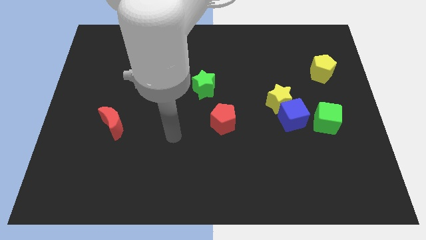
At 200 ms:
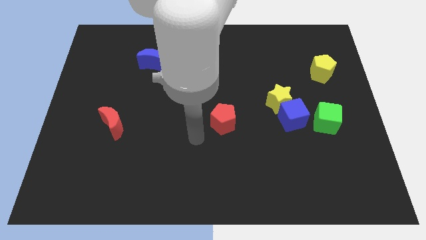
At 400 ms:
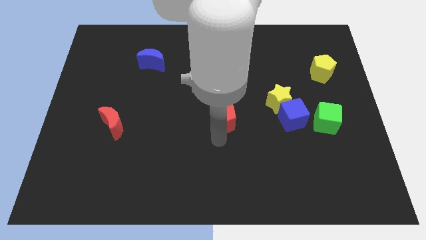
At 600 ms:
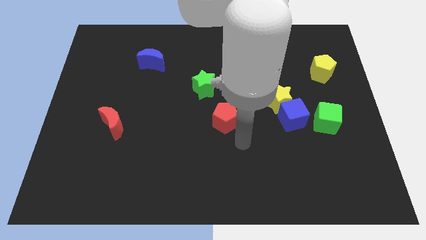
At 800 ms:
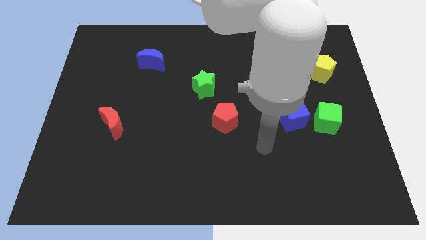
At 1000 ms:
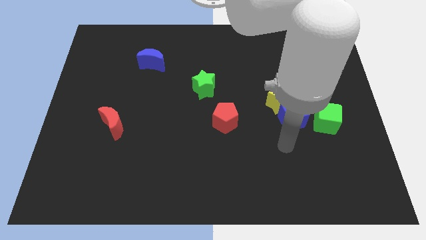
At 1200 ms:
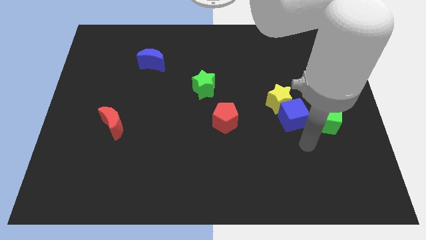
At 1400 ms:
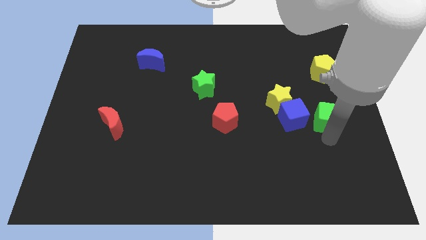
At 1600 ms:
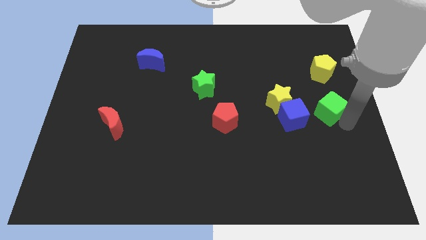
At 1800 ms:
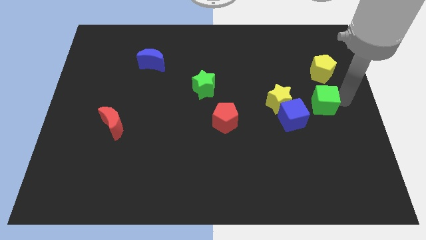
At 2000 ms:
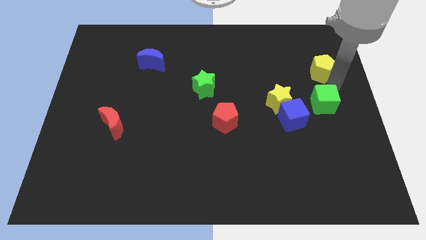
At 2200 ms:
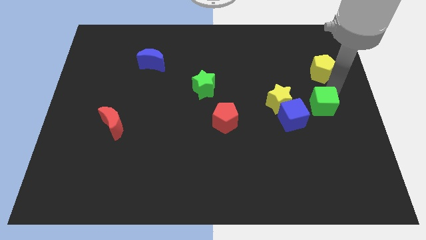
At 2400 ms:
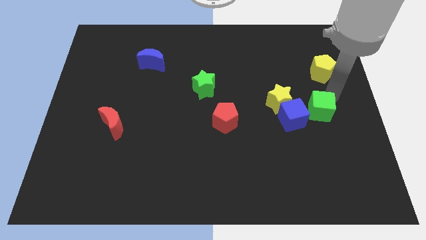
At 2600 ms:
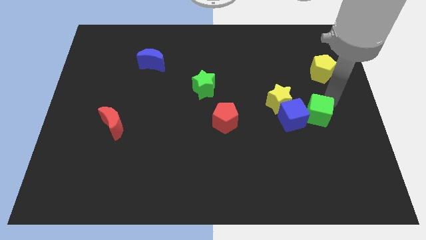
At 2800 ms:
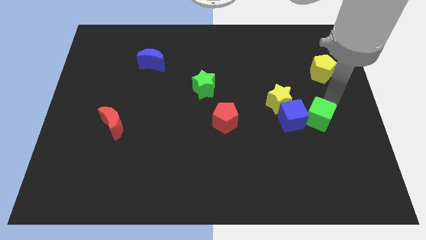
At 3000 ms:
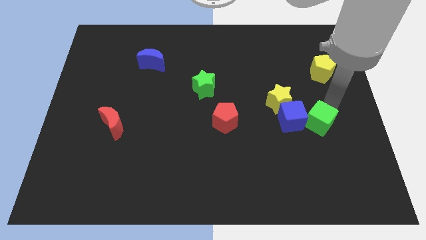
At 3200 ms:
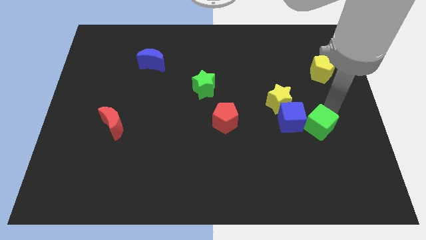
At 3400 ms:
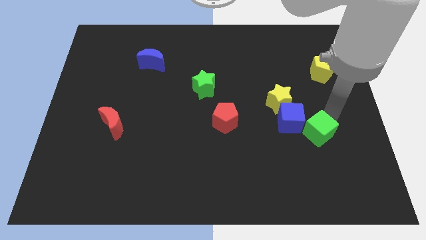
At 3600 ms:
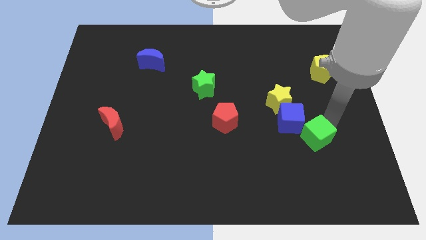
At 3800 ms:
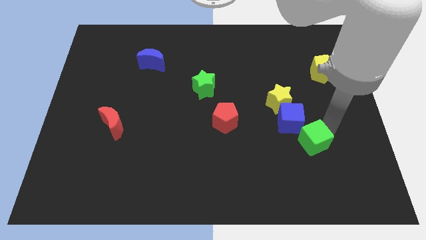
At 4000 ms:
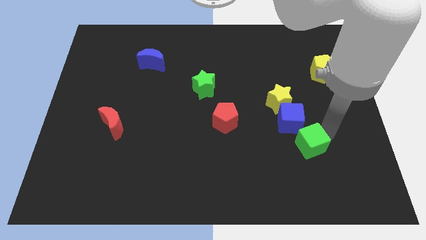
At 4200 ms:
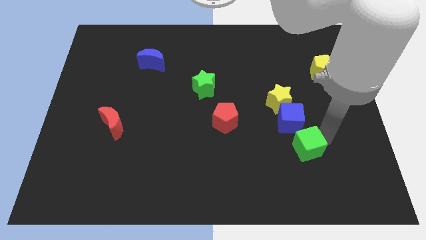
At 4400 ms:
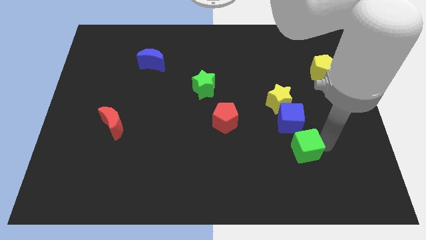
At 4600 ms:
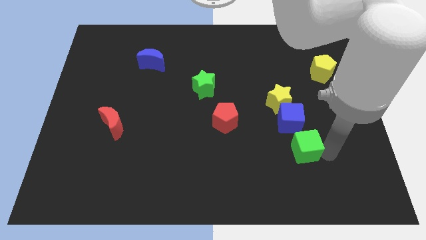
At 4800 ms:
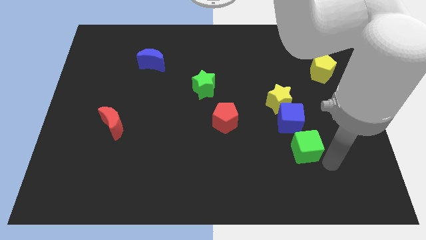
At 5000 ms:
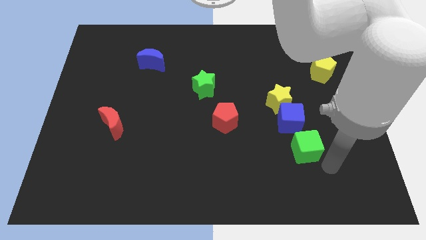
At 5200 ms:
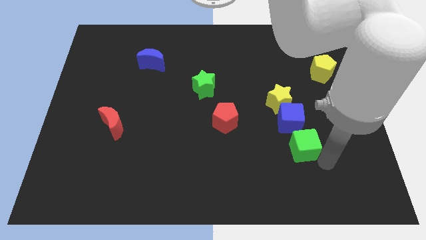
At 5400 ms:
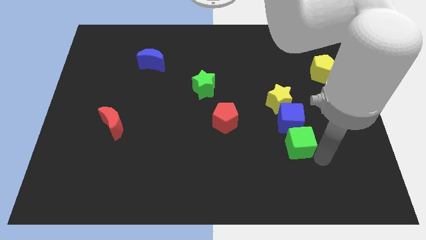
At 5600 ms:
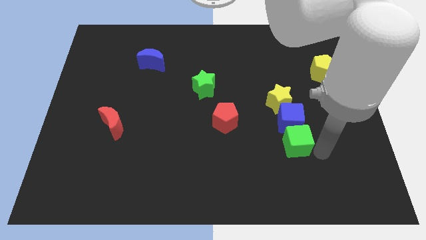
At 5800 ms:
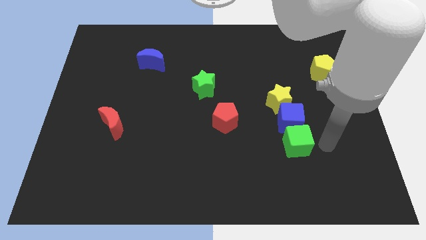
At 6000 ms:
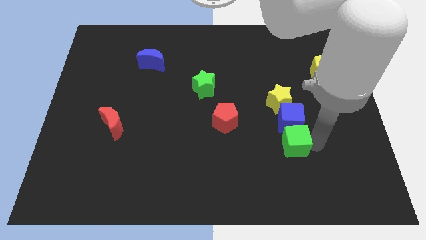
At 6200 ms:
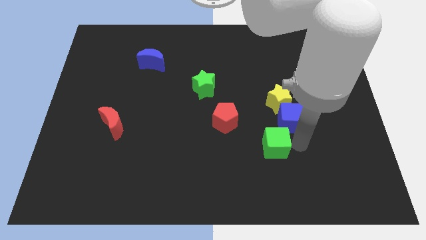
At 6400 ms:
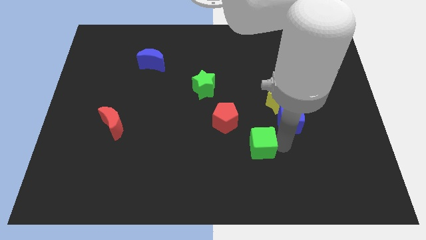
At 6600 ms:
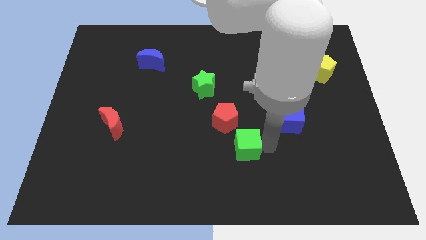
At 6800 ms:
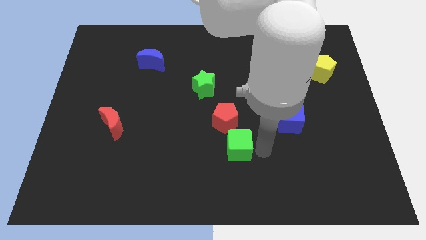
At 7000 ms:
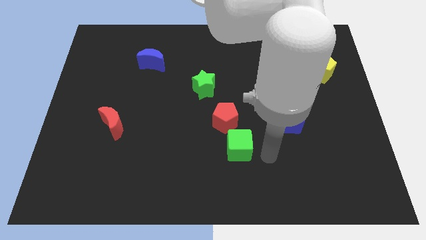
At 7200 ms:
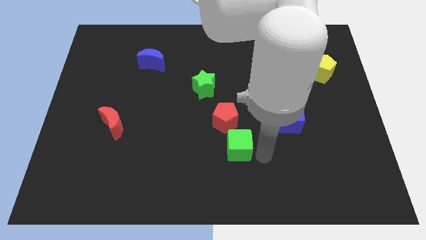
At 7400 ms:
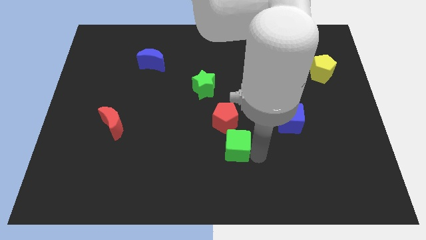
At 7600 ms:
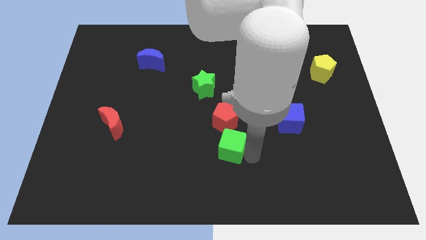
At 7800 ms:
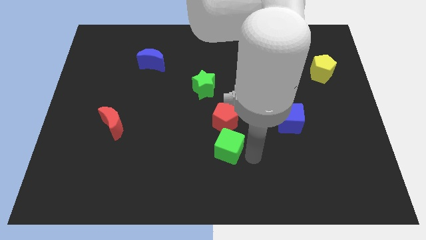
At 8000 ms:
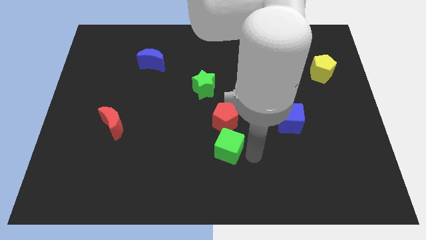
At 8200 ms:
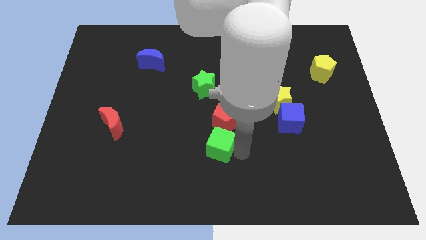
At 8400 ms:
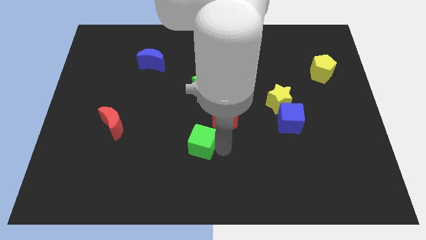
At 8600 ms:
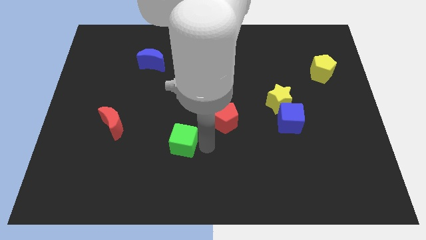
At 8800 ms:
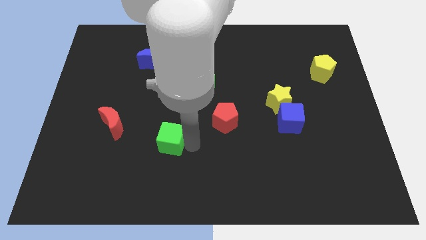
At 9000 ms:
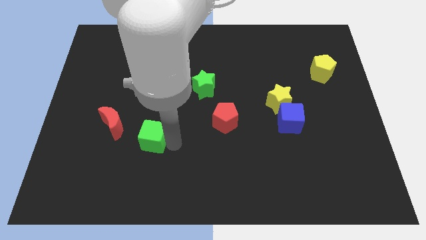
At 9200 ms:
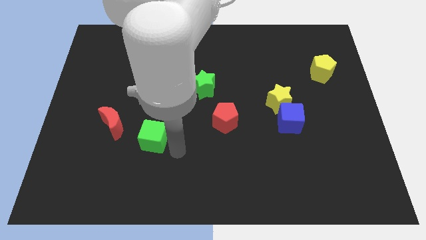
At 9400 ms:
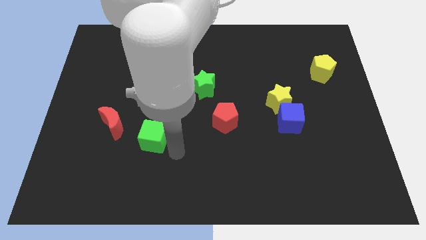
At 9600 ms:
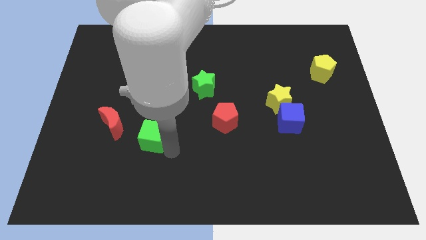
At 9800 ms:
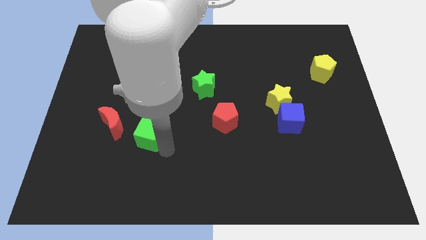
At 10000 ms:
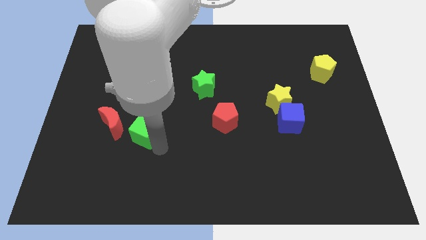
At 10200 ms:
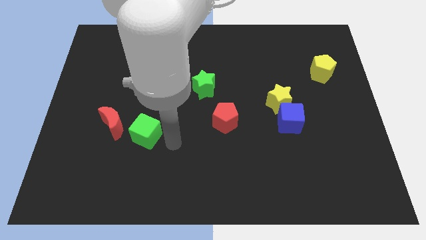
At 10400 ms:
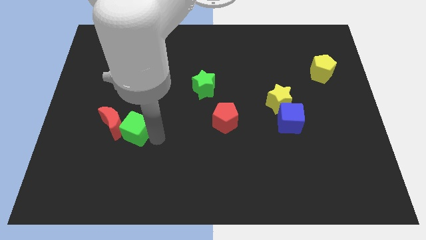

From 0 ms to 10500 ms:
move the green cube to the red moon

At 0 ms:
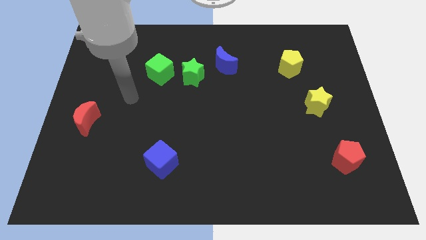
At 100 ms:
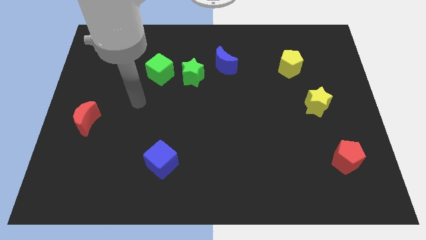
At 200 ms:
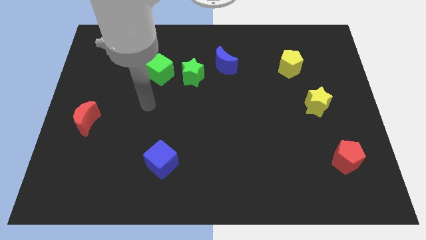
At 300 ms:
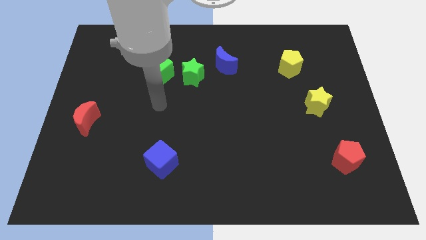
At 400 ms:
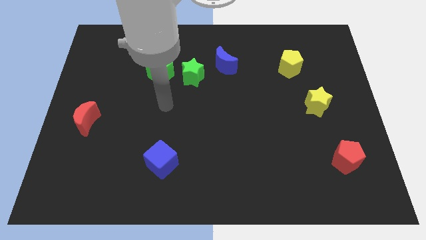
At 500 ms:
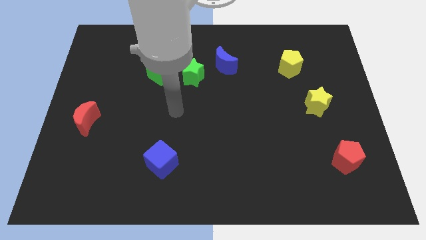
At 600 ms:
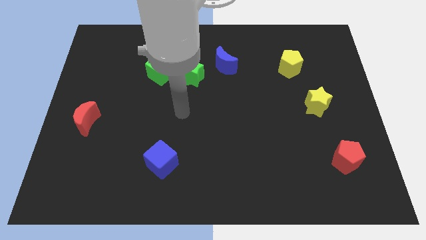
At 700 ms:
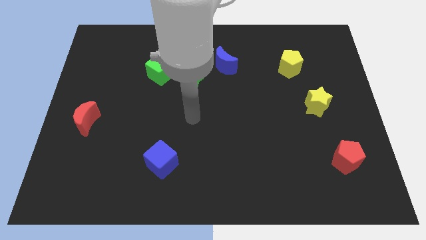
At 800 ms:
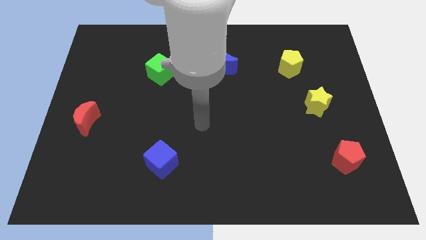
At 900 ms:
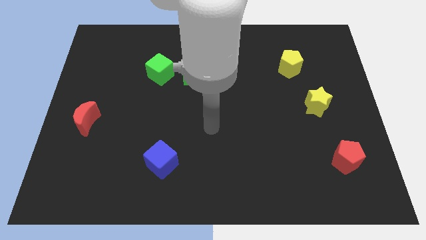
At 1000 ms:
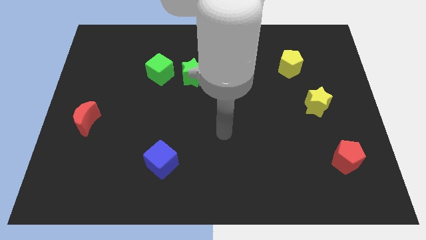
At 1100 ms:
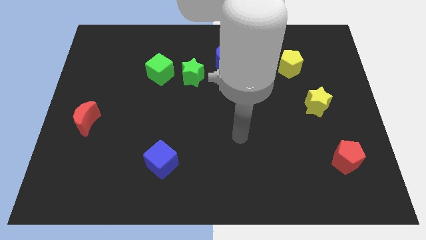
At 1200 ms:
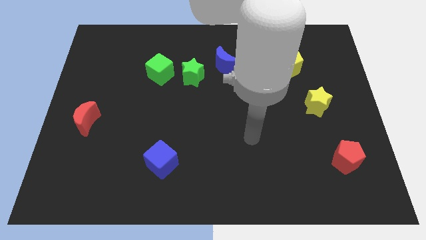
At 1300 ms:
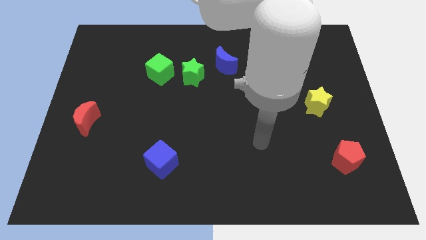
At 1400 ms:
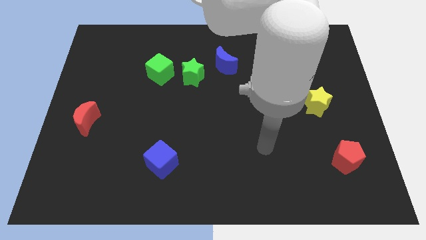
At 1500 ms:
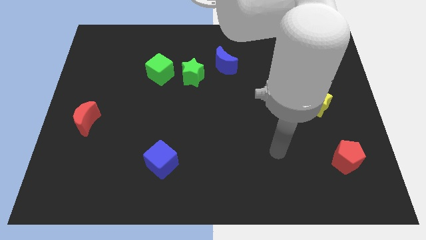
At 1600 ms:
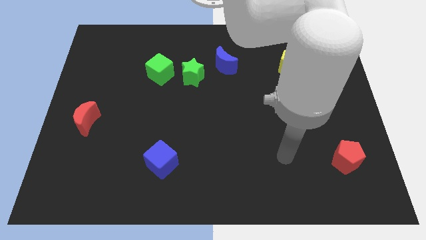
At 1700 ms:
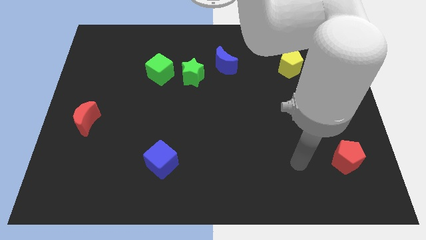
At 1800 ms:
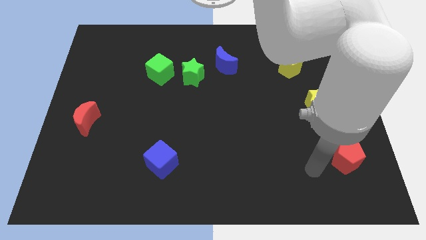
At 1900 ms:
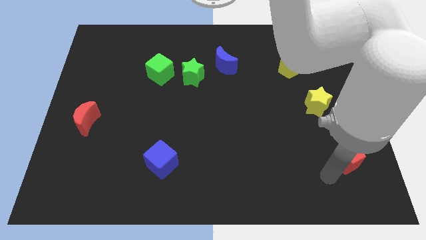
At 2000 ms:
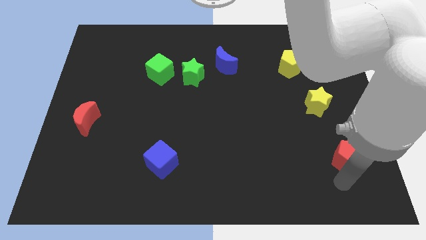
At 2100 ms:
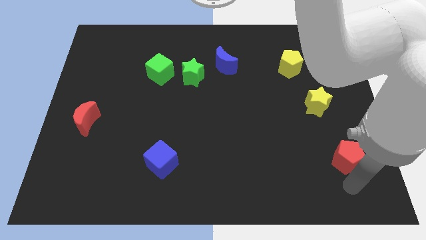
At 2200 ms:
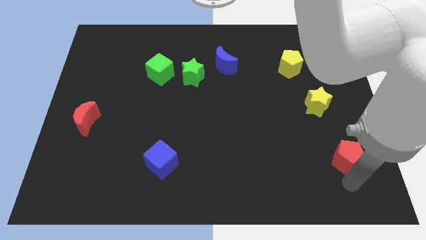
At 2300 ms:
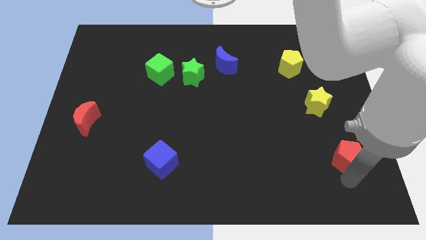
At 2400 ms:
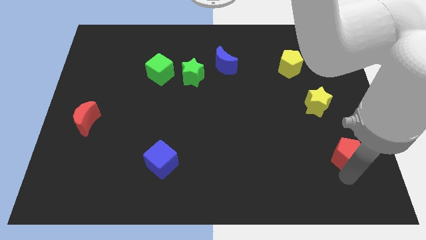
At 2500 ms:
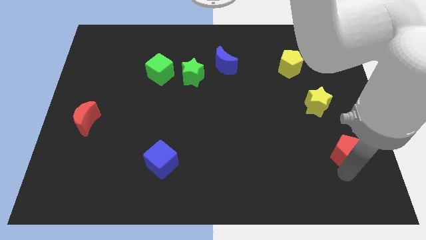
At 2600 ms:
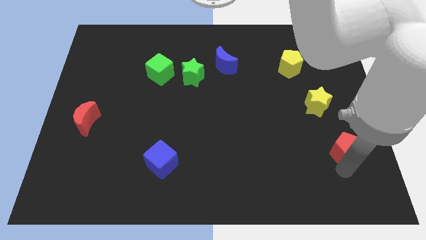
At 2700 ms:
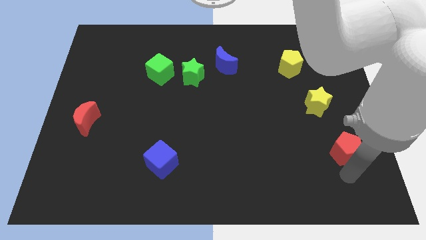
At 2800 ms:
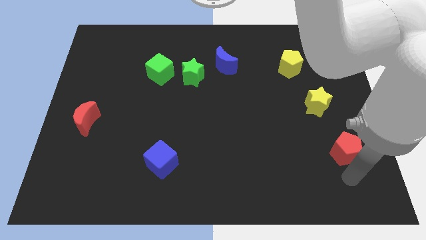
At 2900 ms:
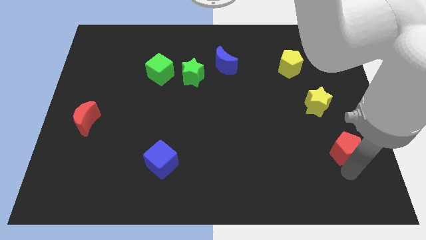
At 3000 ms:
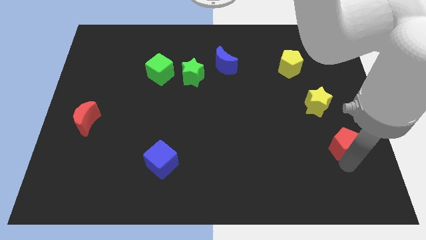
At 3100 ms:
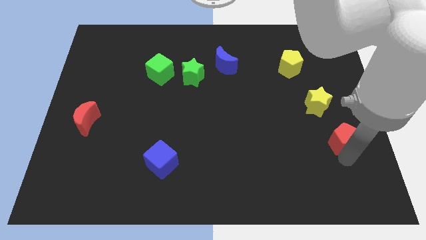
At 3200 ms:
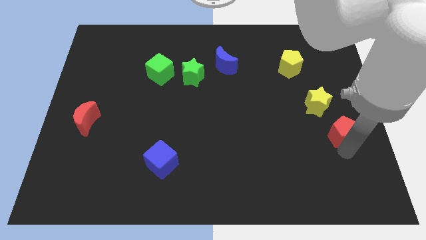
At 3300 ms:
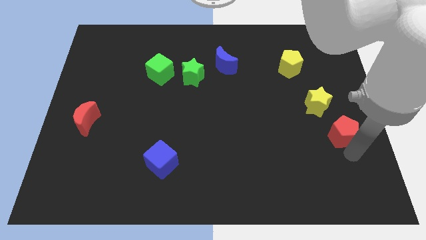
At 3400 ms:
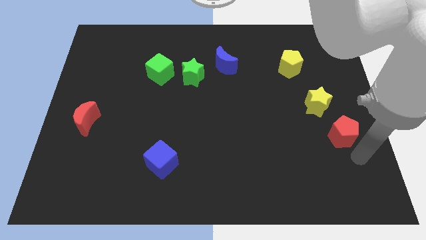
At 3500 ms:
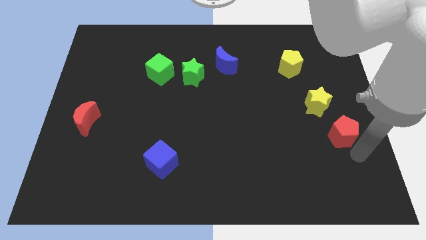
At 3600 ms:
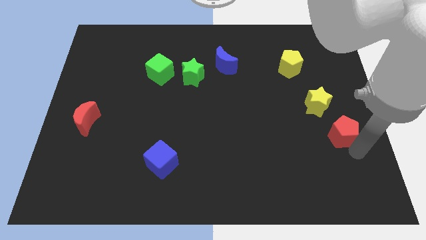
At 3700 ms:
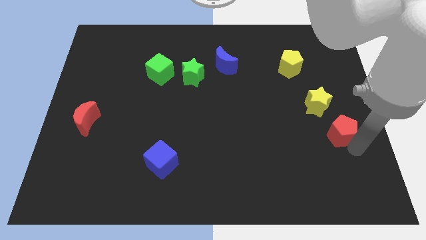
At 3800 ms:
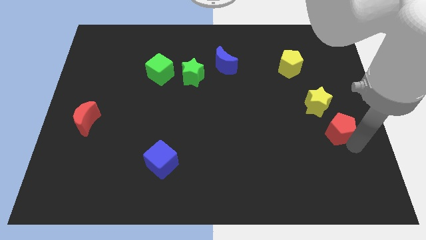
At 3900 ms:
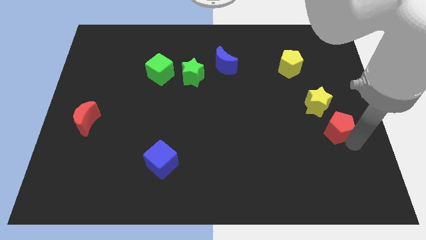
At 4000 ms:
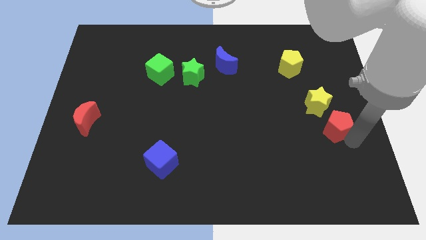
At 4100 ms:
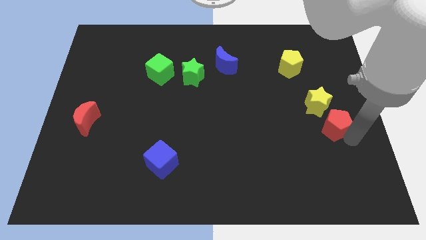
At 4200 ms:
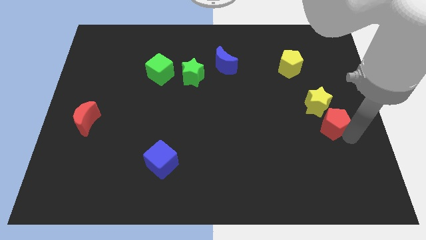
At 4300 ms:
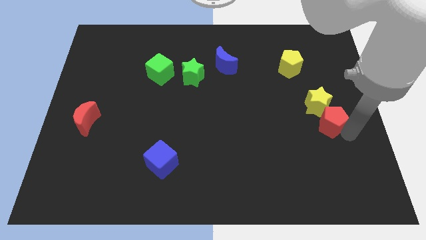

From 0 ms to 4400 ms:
move the red pentagon to the yellow star
